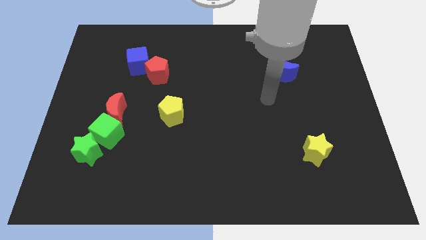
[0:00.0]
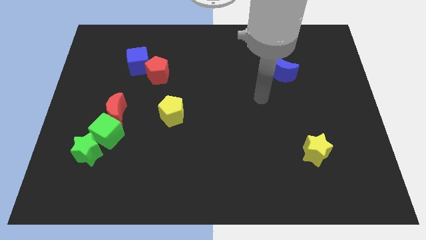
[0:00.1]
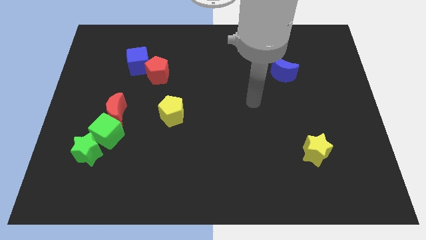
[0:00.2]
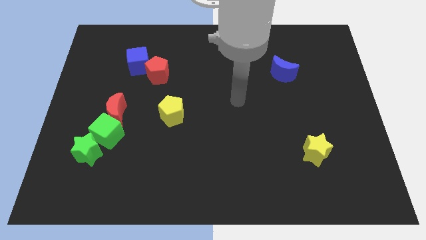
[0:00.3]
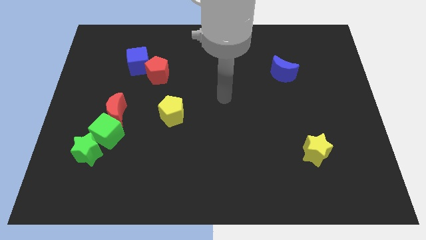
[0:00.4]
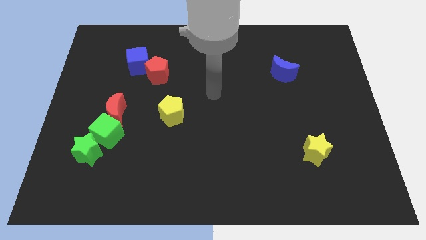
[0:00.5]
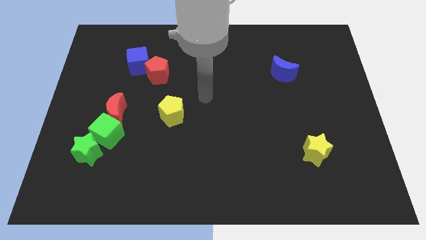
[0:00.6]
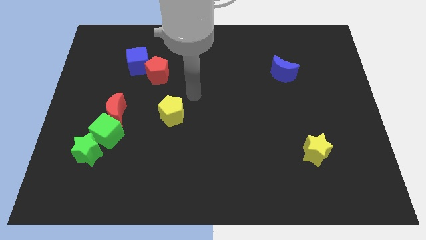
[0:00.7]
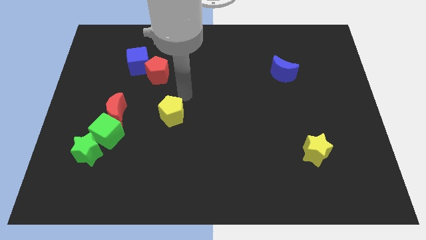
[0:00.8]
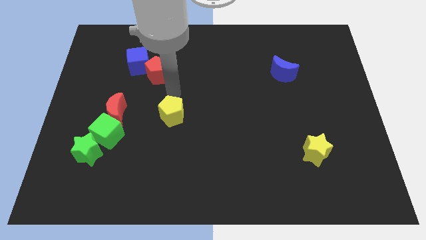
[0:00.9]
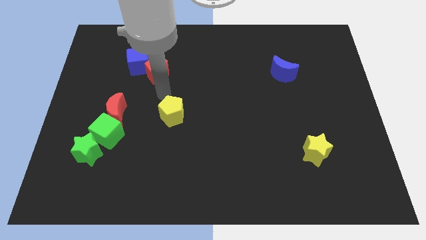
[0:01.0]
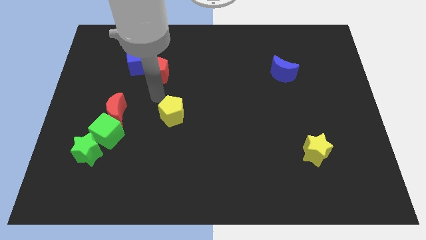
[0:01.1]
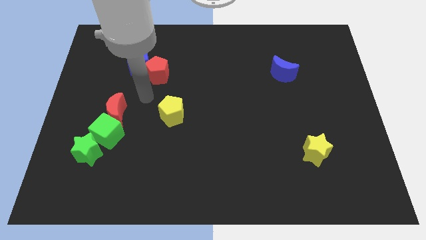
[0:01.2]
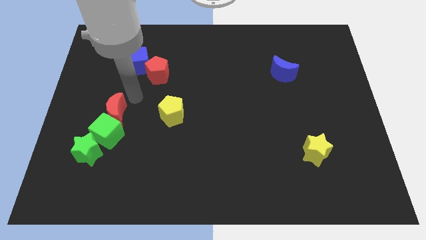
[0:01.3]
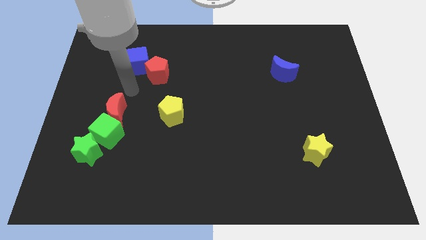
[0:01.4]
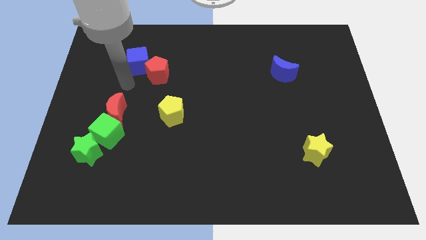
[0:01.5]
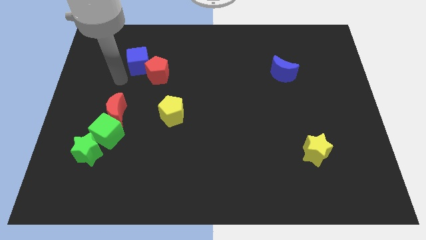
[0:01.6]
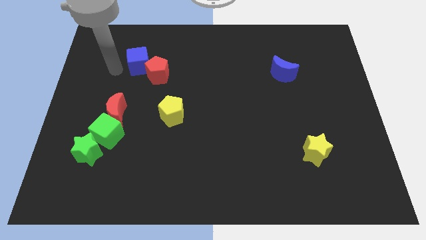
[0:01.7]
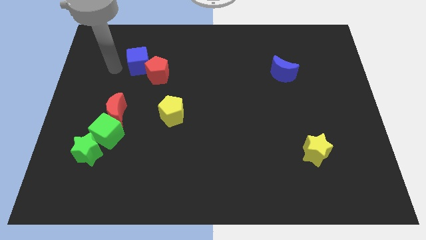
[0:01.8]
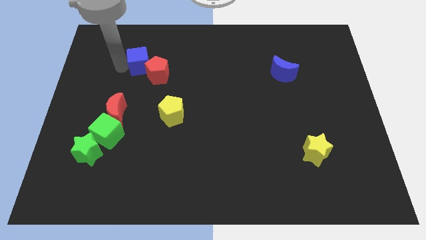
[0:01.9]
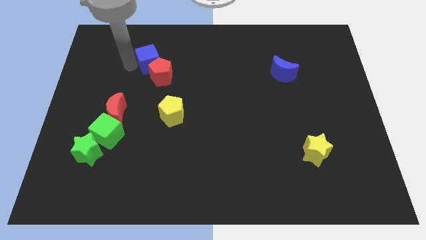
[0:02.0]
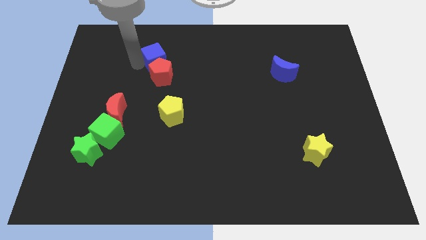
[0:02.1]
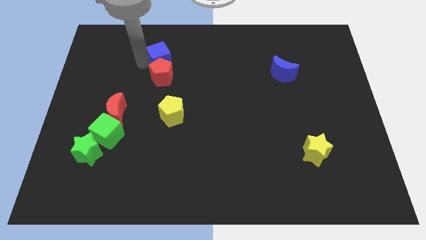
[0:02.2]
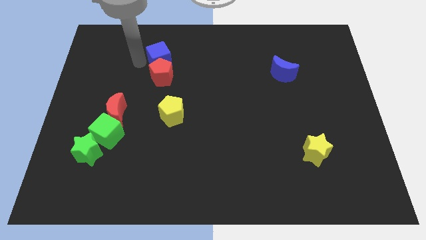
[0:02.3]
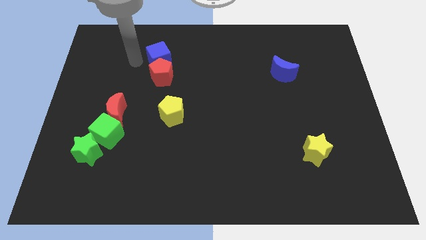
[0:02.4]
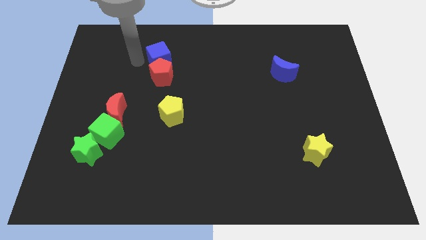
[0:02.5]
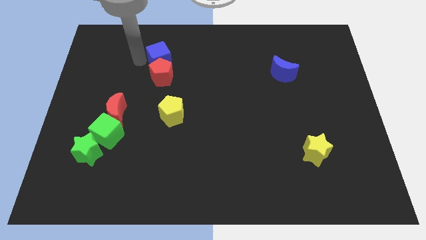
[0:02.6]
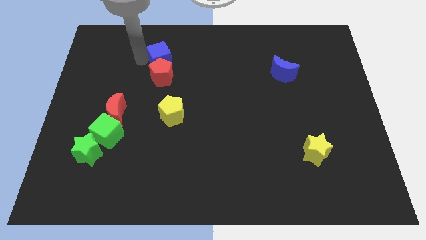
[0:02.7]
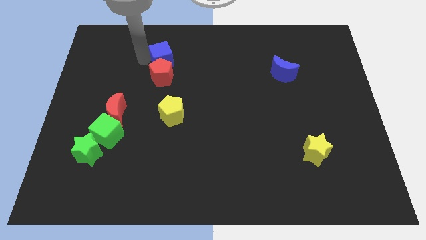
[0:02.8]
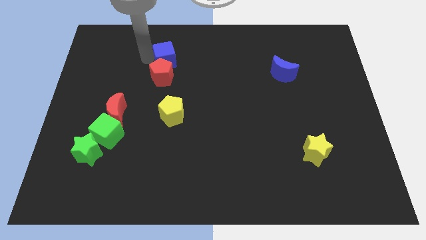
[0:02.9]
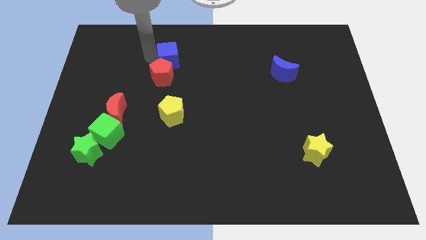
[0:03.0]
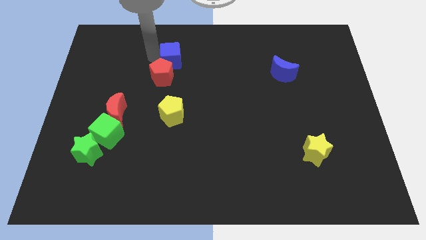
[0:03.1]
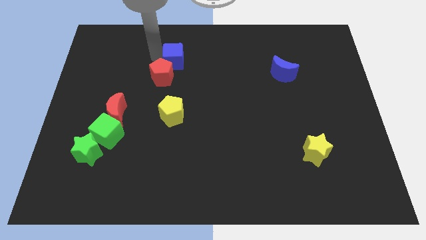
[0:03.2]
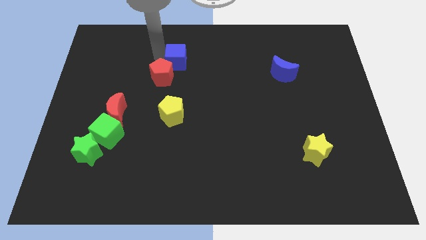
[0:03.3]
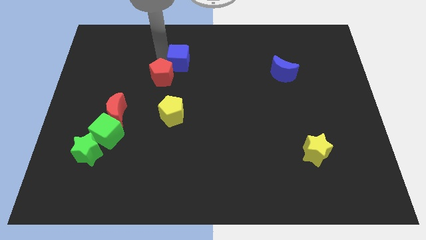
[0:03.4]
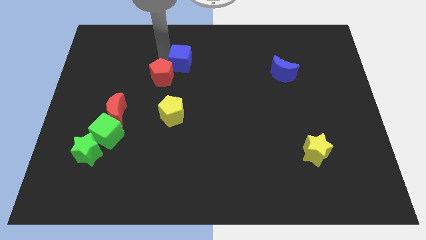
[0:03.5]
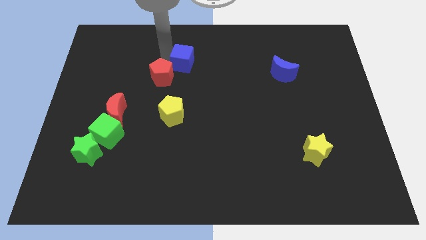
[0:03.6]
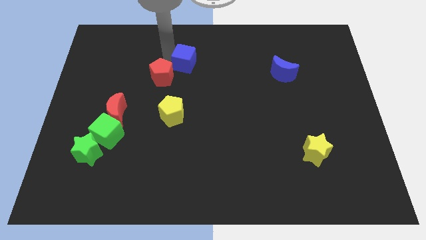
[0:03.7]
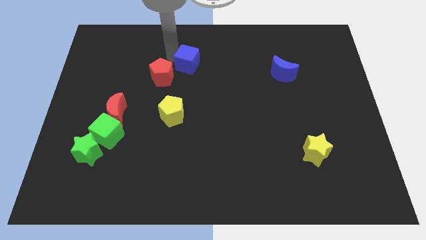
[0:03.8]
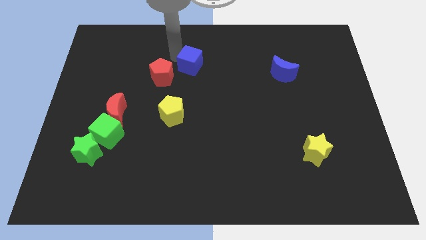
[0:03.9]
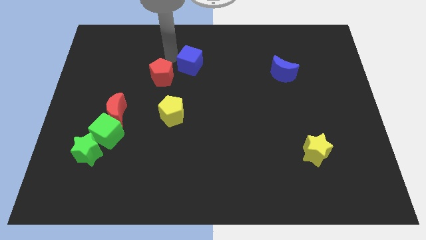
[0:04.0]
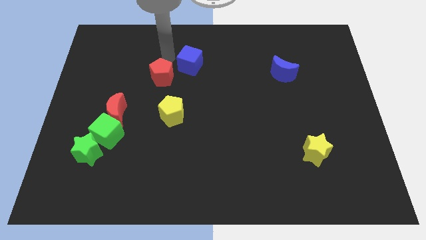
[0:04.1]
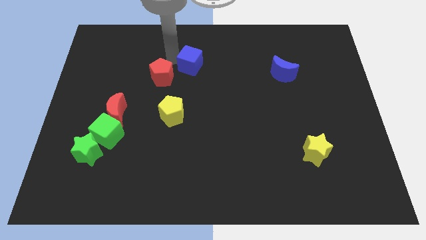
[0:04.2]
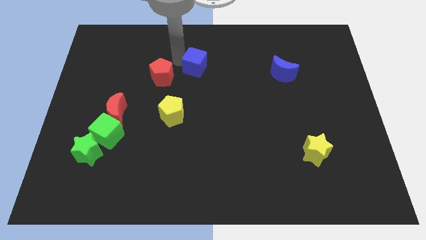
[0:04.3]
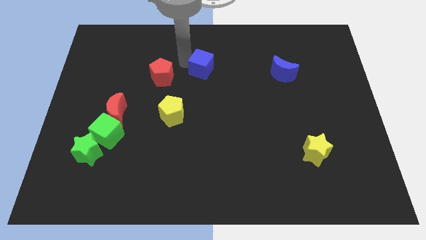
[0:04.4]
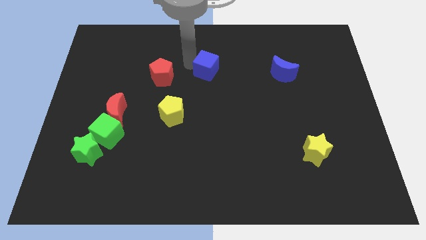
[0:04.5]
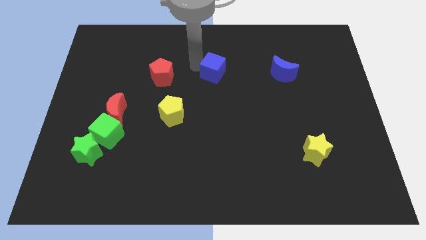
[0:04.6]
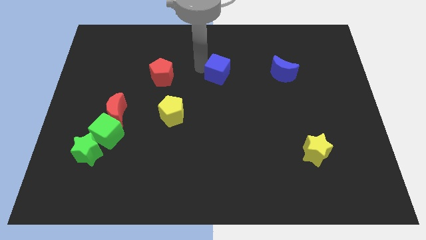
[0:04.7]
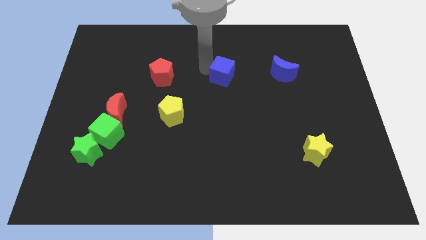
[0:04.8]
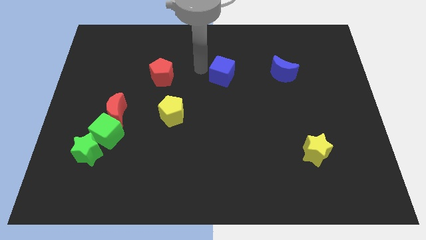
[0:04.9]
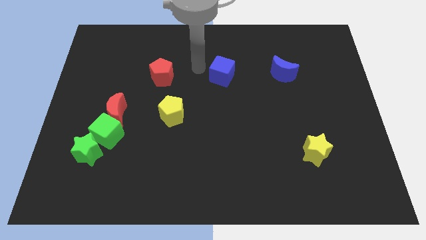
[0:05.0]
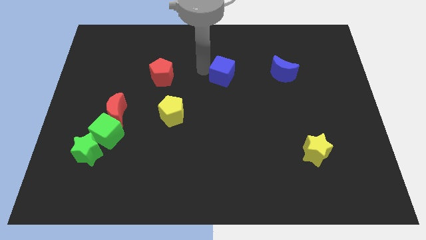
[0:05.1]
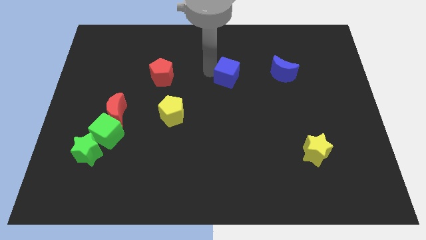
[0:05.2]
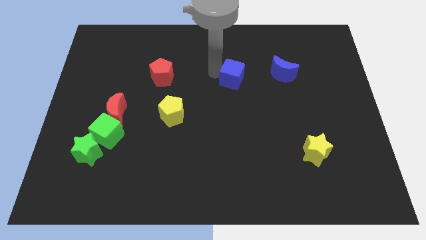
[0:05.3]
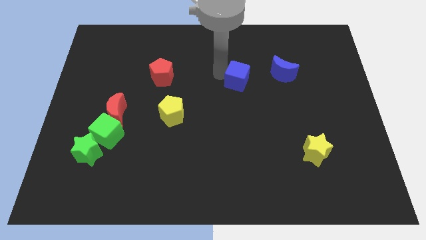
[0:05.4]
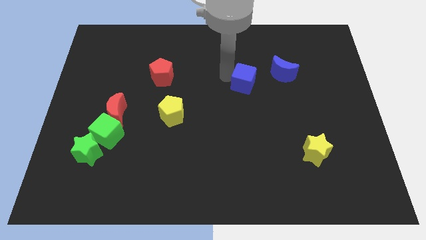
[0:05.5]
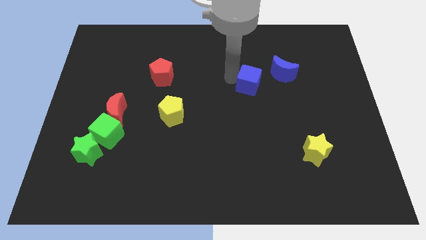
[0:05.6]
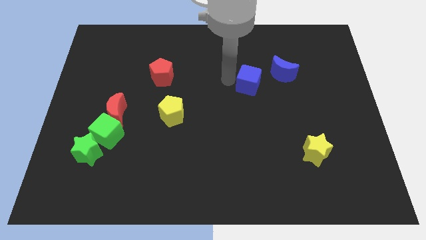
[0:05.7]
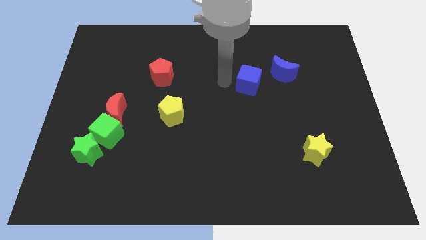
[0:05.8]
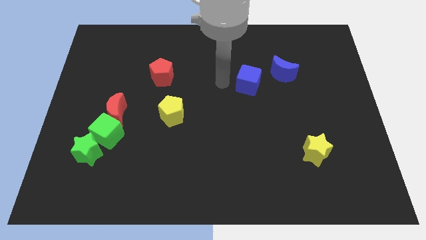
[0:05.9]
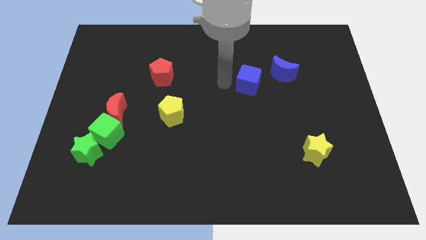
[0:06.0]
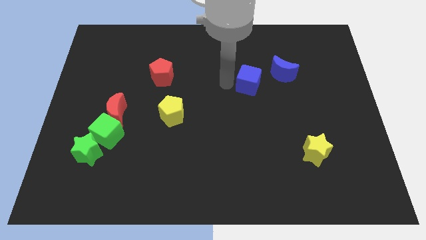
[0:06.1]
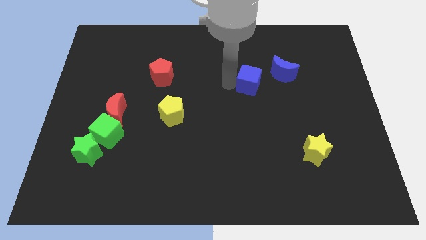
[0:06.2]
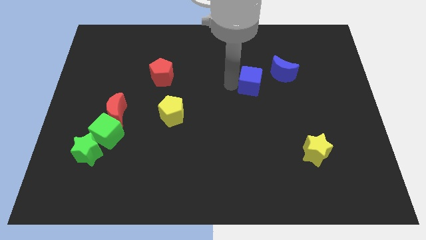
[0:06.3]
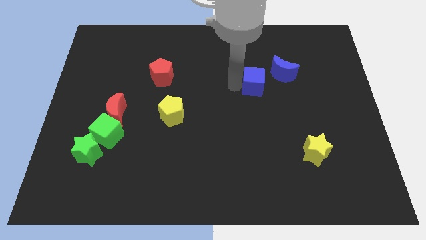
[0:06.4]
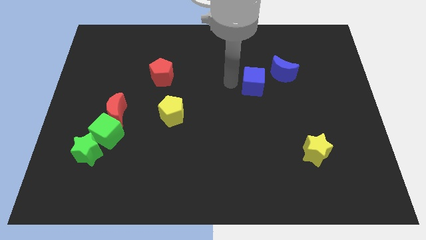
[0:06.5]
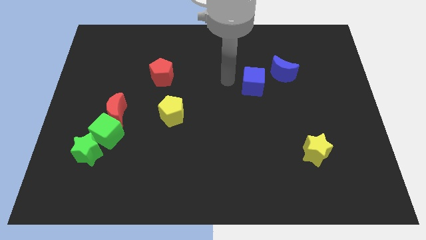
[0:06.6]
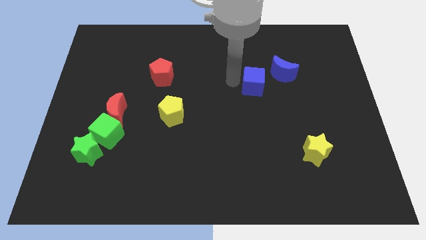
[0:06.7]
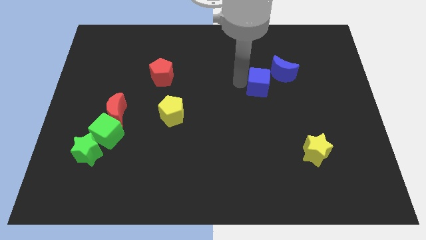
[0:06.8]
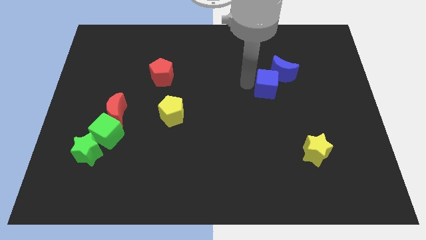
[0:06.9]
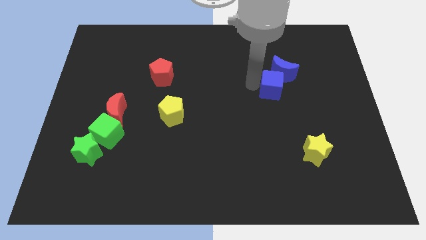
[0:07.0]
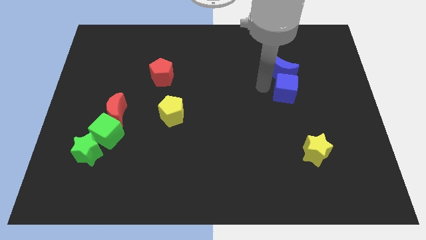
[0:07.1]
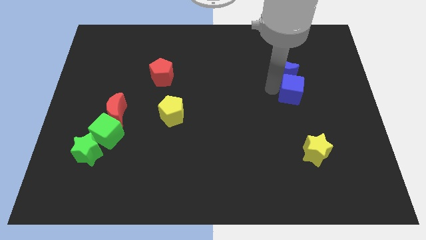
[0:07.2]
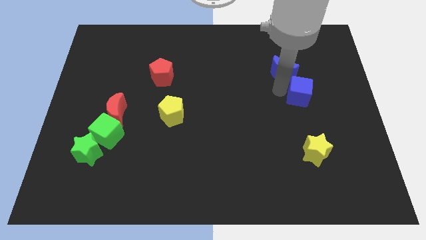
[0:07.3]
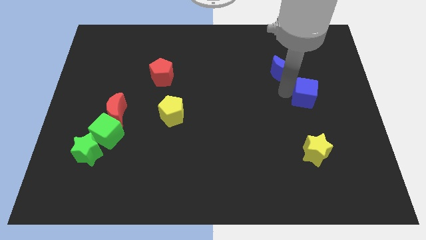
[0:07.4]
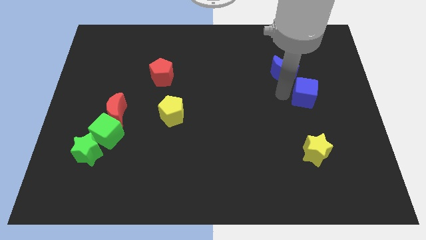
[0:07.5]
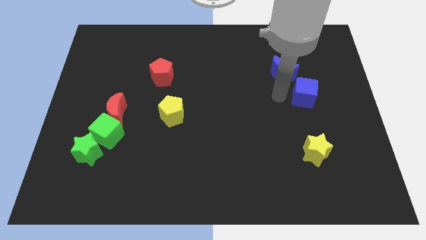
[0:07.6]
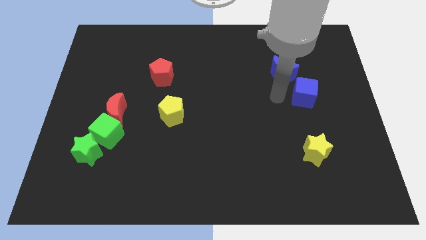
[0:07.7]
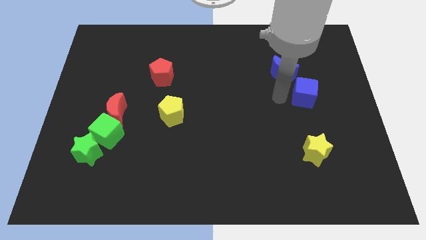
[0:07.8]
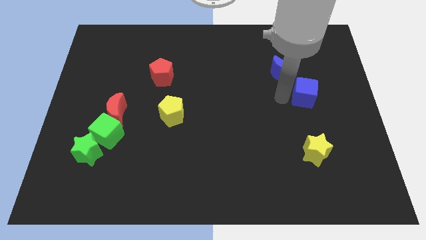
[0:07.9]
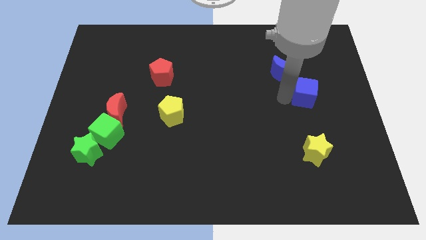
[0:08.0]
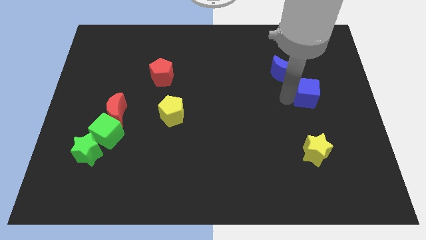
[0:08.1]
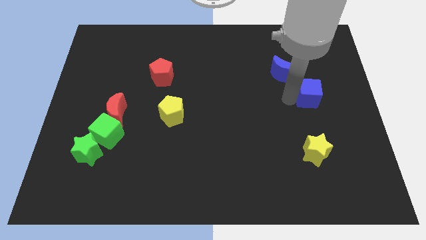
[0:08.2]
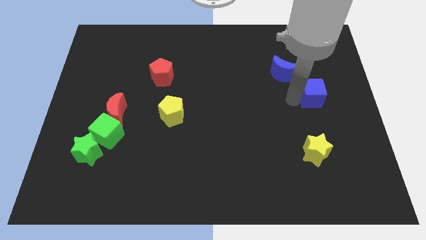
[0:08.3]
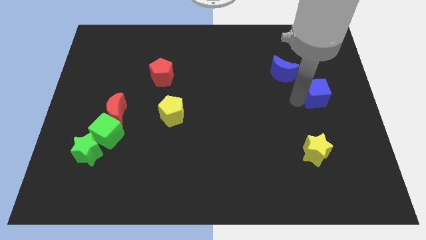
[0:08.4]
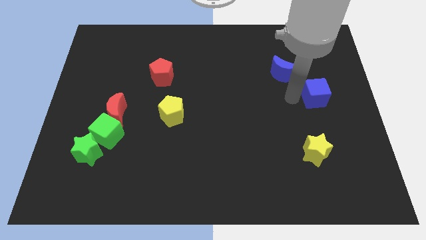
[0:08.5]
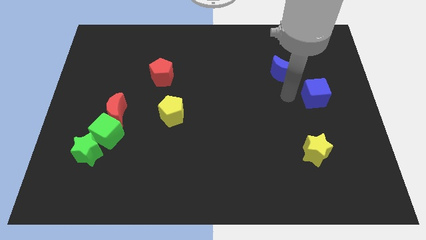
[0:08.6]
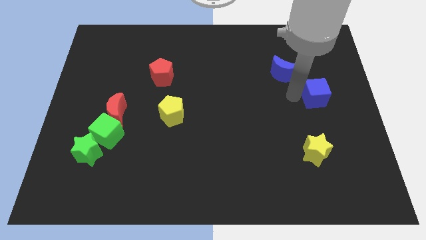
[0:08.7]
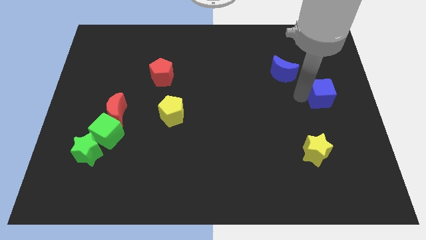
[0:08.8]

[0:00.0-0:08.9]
put the blue cube to the right side
